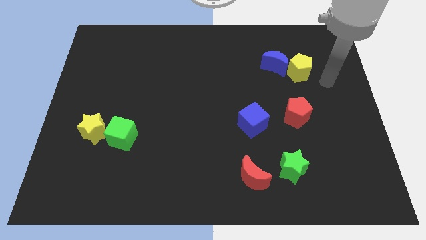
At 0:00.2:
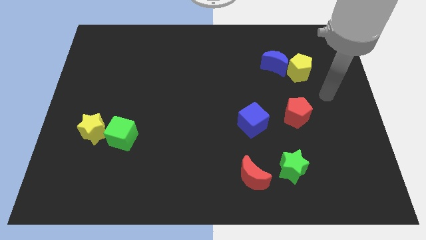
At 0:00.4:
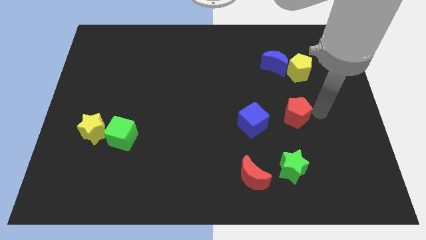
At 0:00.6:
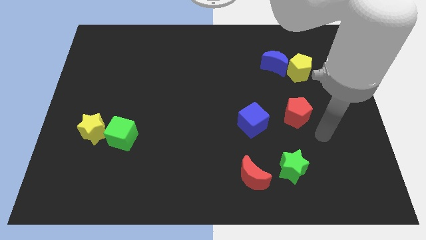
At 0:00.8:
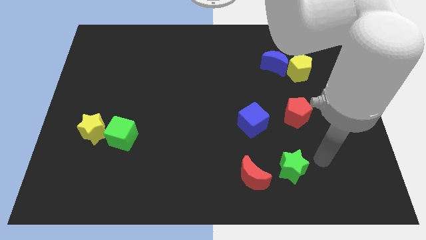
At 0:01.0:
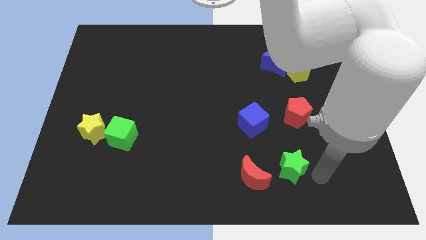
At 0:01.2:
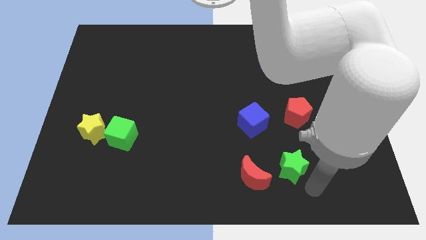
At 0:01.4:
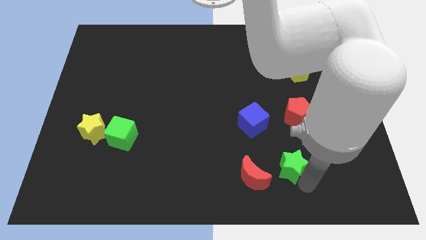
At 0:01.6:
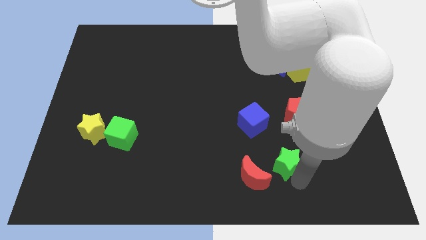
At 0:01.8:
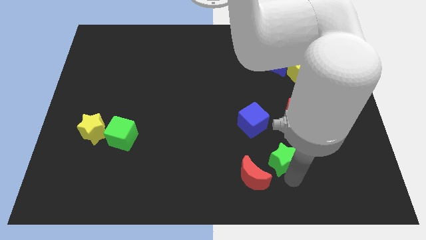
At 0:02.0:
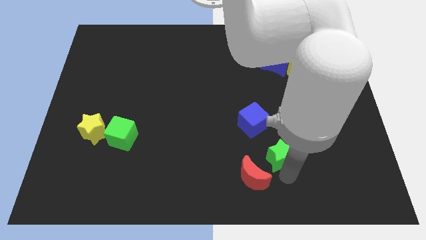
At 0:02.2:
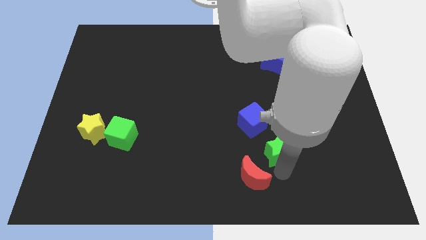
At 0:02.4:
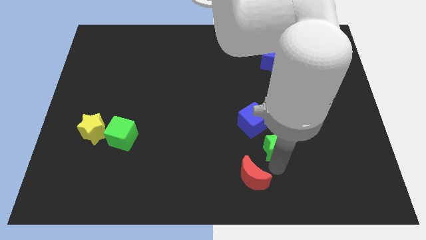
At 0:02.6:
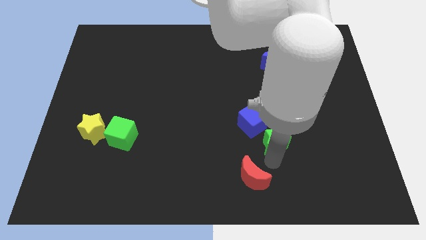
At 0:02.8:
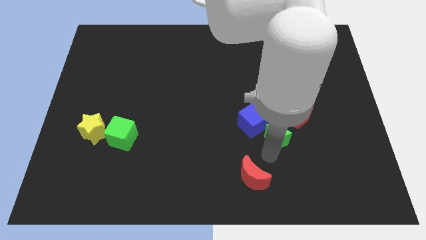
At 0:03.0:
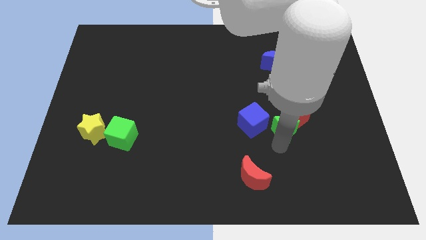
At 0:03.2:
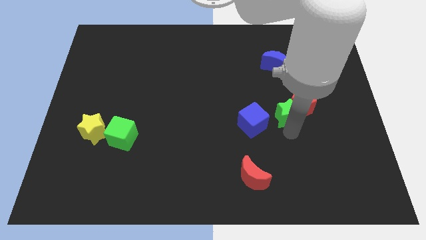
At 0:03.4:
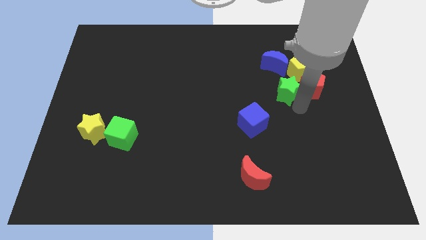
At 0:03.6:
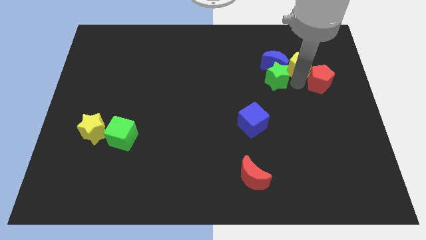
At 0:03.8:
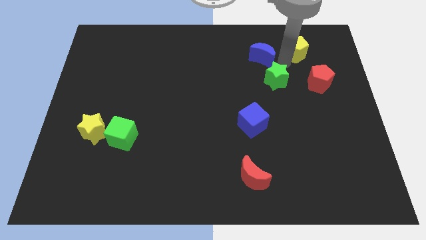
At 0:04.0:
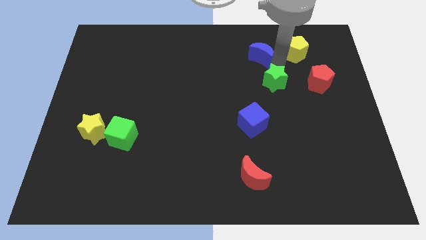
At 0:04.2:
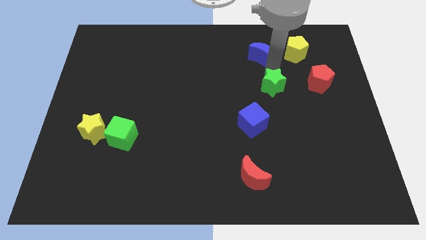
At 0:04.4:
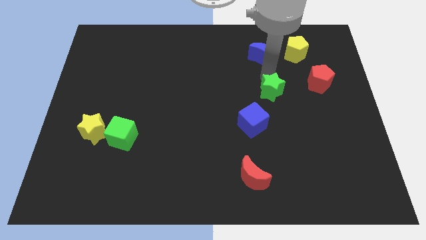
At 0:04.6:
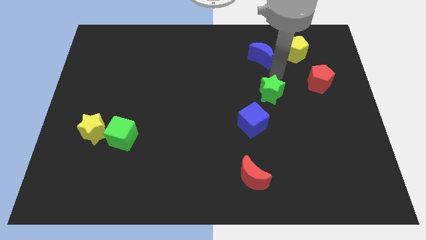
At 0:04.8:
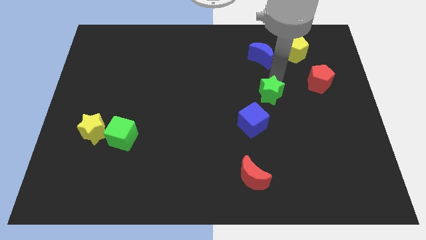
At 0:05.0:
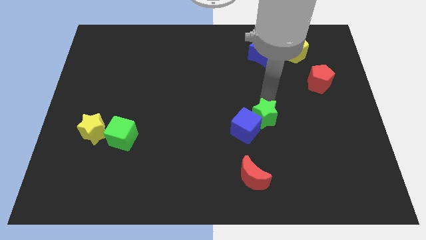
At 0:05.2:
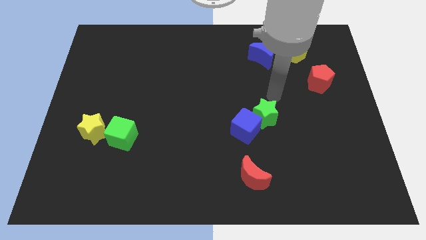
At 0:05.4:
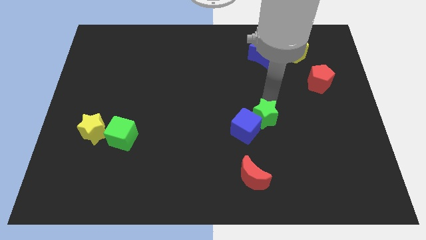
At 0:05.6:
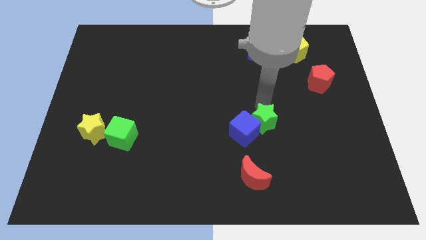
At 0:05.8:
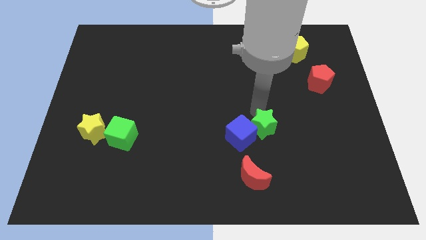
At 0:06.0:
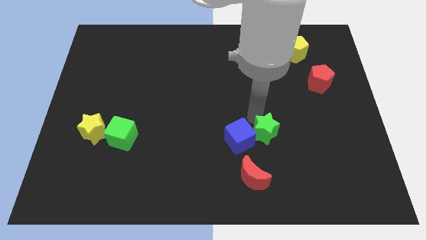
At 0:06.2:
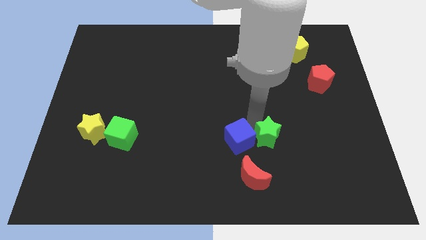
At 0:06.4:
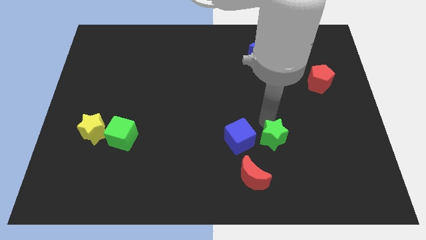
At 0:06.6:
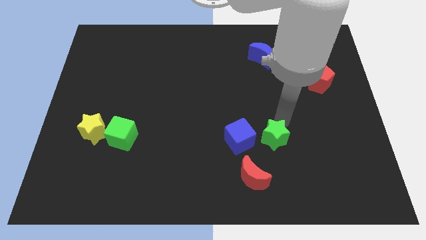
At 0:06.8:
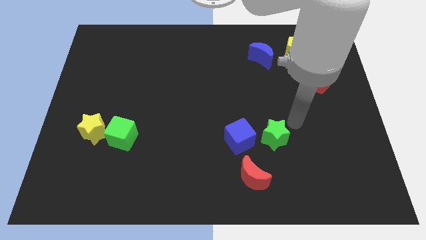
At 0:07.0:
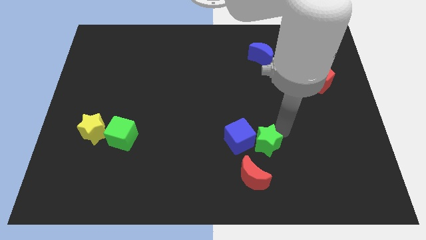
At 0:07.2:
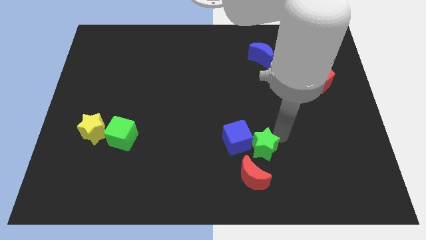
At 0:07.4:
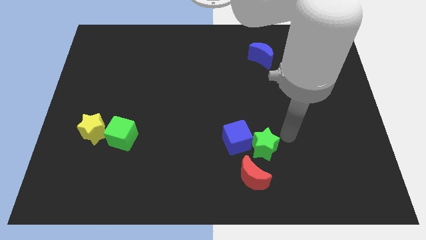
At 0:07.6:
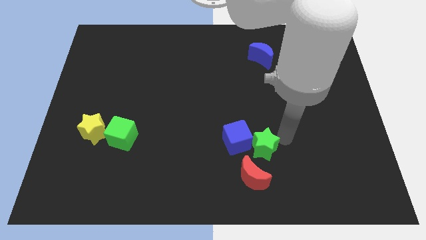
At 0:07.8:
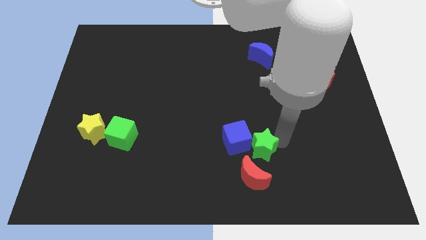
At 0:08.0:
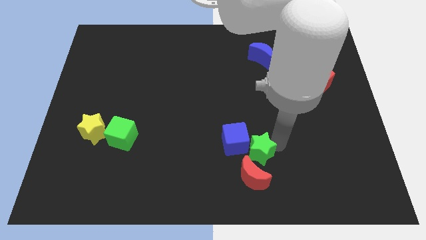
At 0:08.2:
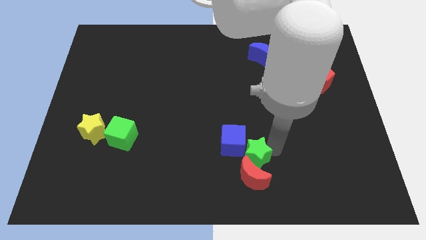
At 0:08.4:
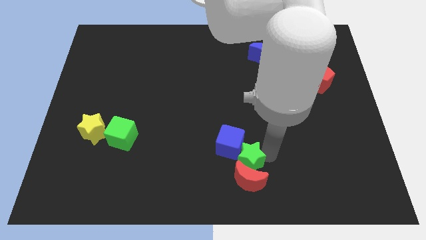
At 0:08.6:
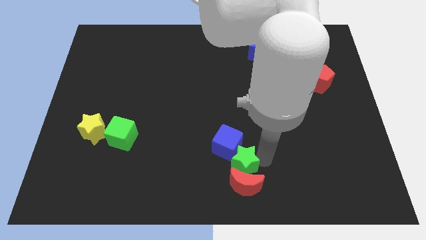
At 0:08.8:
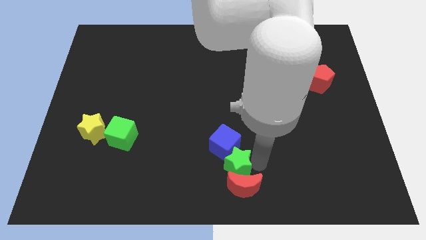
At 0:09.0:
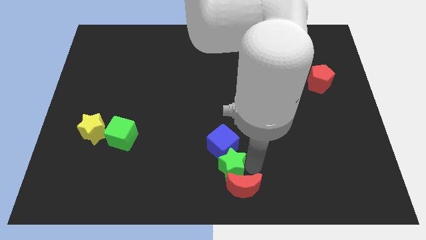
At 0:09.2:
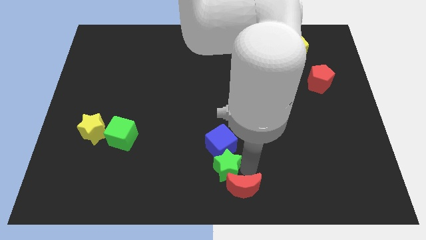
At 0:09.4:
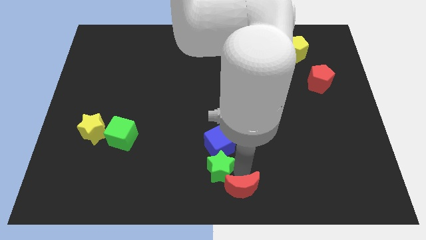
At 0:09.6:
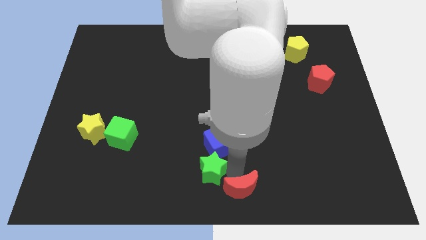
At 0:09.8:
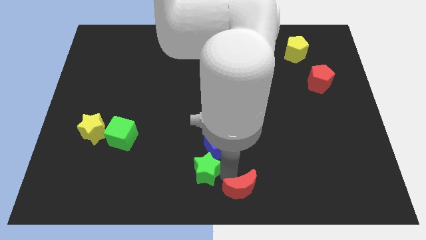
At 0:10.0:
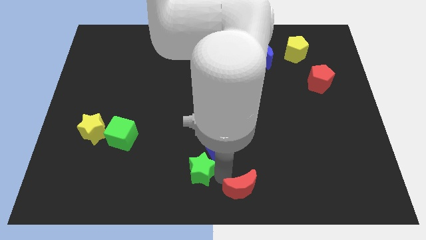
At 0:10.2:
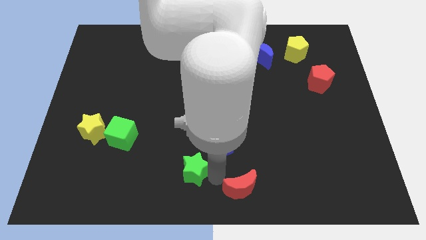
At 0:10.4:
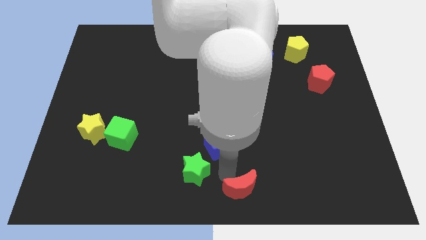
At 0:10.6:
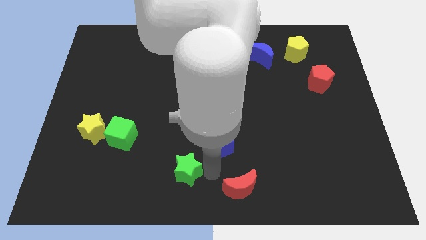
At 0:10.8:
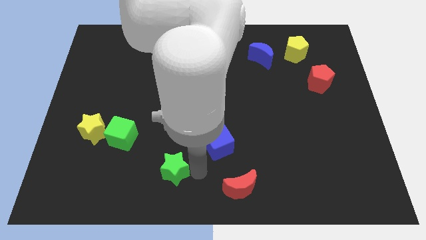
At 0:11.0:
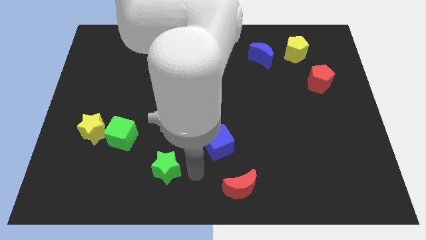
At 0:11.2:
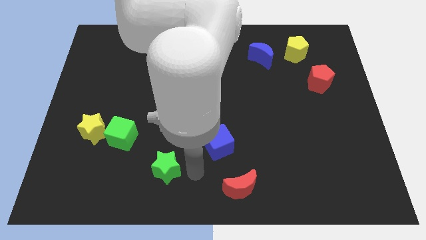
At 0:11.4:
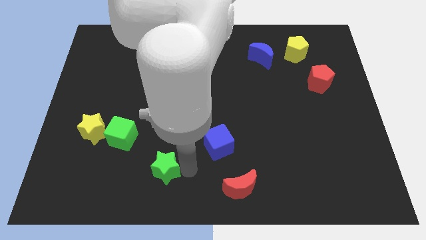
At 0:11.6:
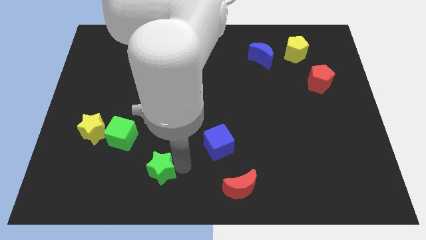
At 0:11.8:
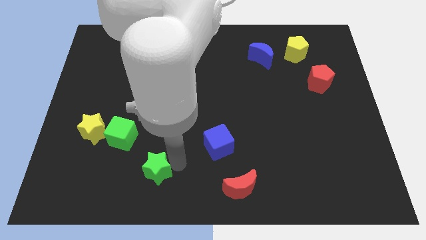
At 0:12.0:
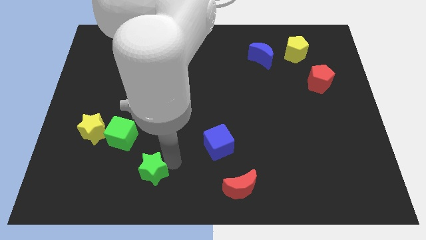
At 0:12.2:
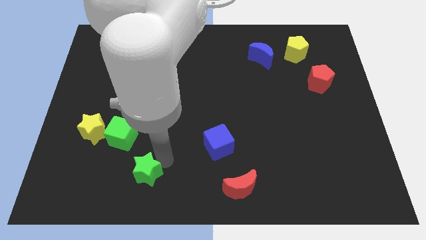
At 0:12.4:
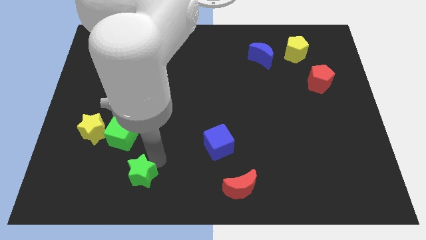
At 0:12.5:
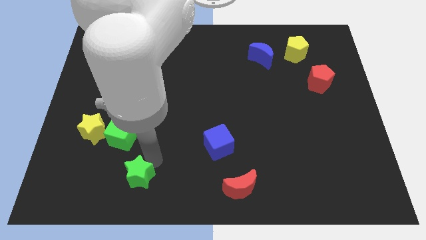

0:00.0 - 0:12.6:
put the green star to the bottom side of the green cube

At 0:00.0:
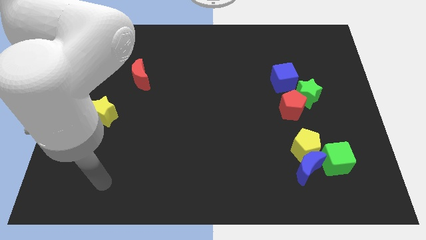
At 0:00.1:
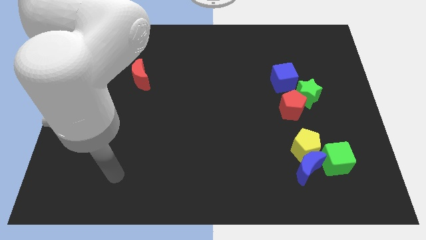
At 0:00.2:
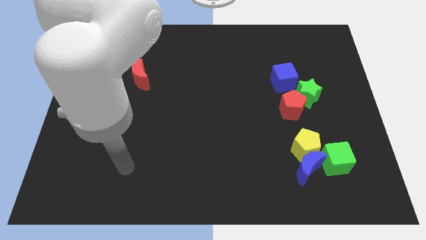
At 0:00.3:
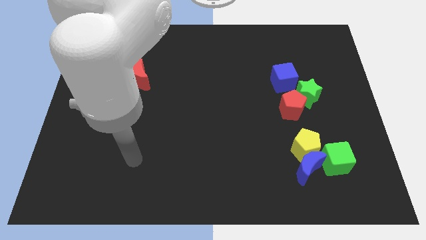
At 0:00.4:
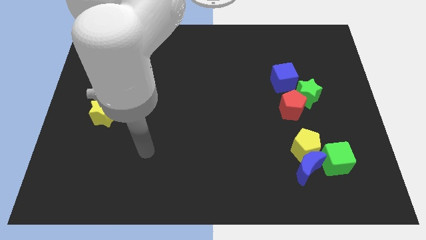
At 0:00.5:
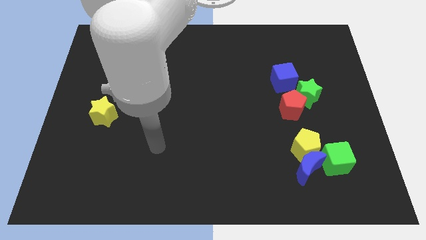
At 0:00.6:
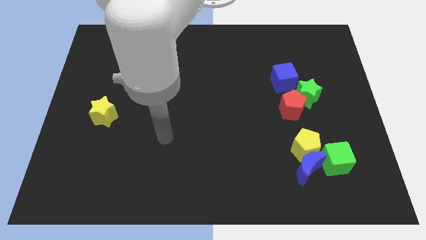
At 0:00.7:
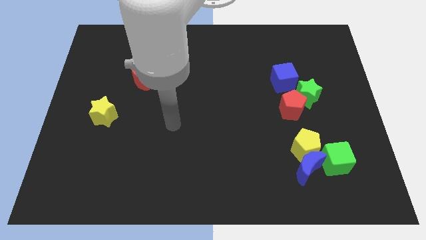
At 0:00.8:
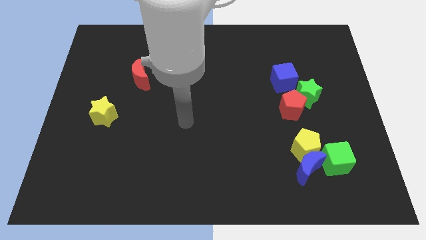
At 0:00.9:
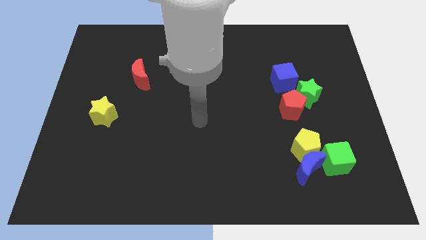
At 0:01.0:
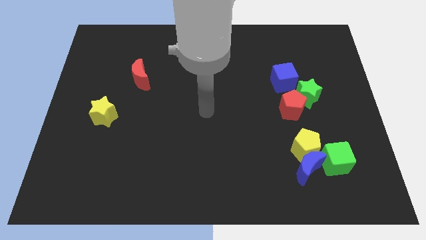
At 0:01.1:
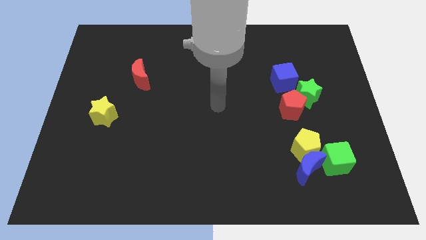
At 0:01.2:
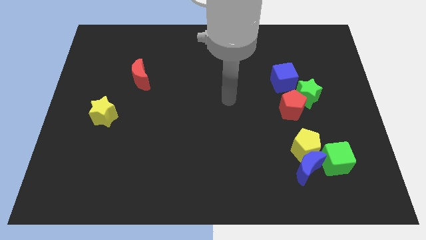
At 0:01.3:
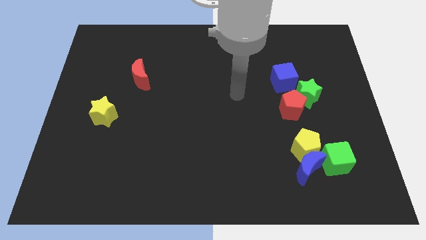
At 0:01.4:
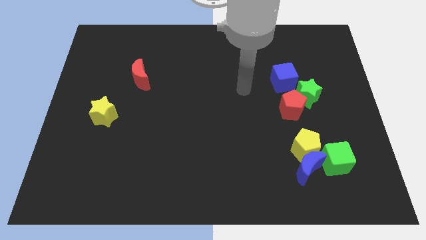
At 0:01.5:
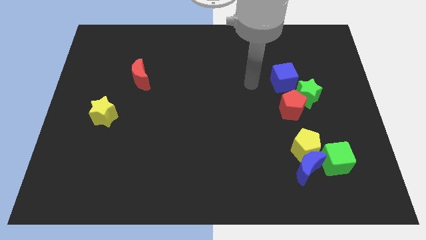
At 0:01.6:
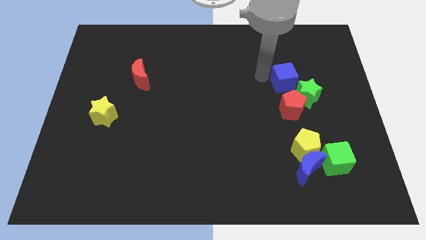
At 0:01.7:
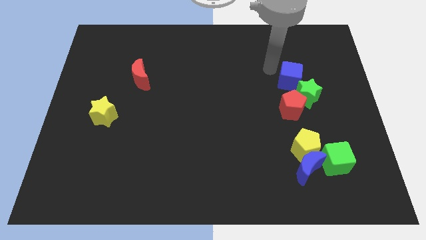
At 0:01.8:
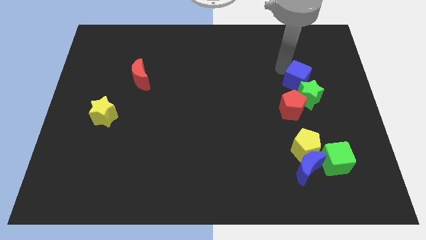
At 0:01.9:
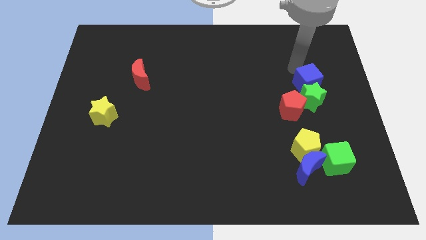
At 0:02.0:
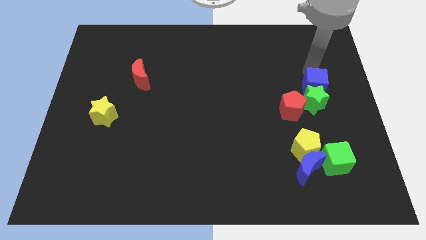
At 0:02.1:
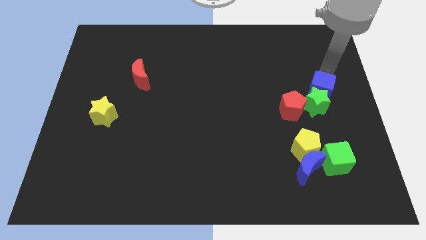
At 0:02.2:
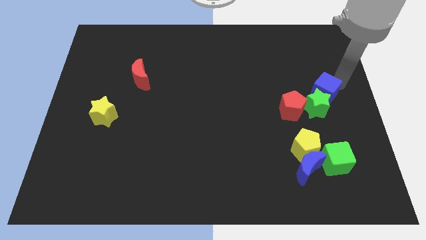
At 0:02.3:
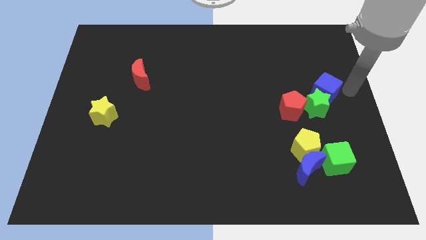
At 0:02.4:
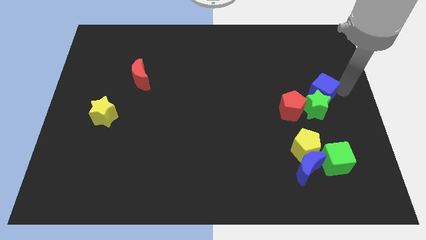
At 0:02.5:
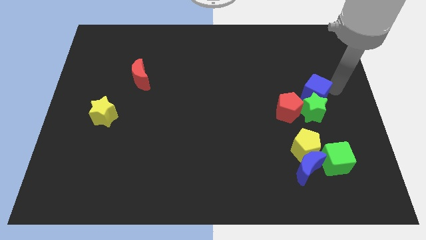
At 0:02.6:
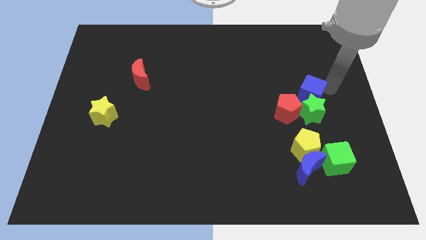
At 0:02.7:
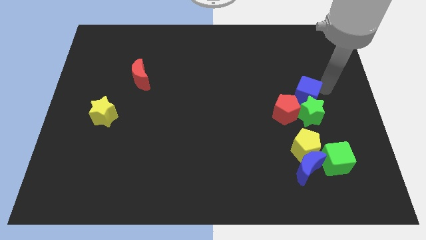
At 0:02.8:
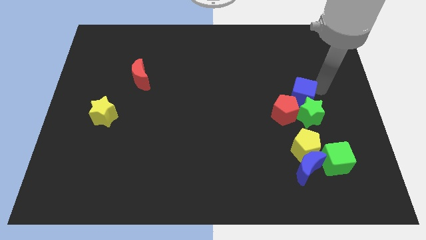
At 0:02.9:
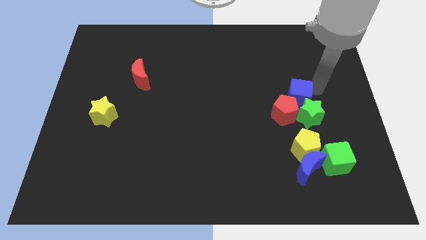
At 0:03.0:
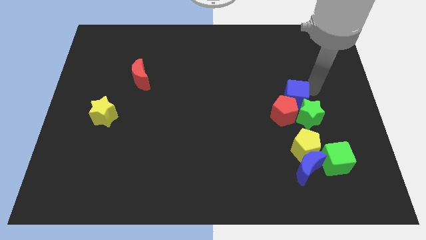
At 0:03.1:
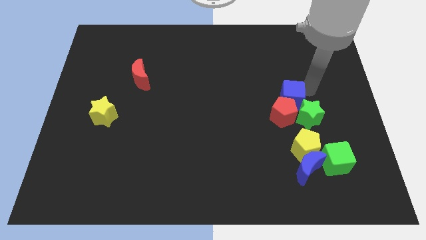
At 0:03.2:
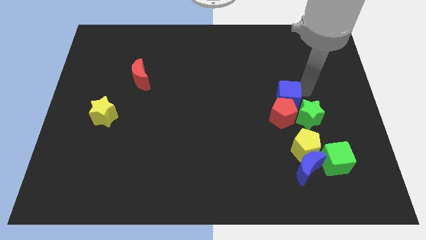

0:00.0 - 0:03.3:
push the blue cube to the top left side of the red pentagon
